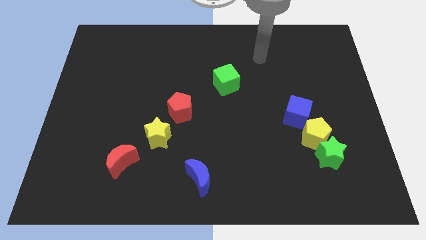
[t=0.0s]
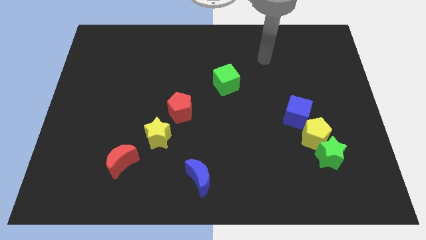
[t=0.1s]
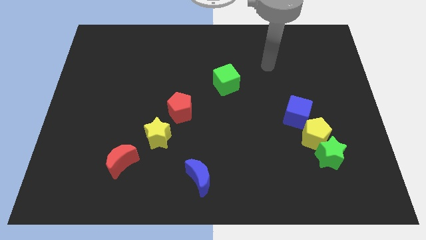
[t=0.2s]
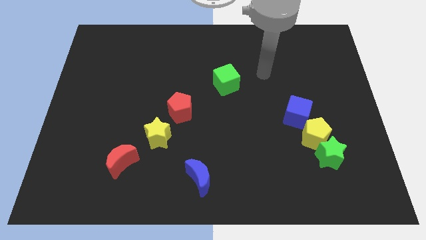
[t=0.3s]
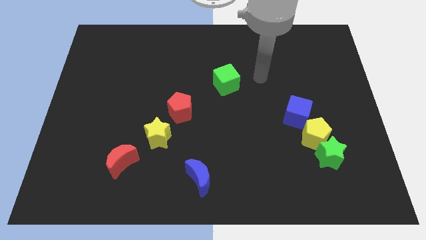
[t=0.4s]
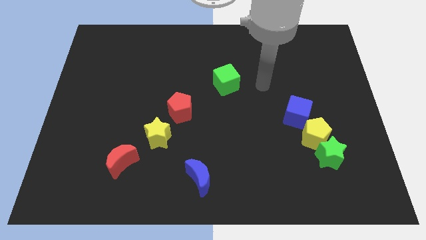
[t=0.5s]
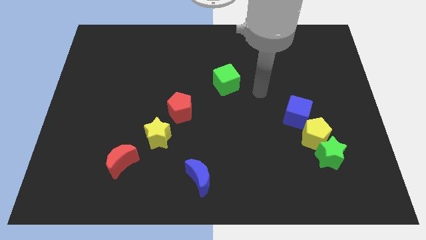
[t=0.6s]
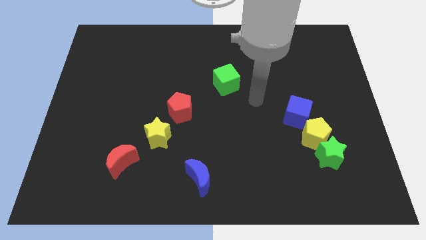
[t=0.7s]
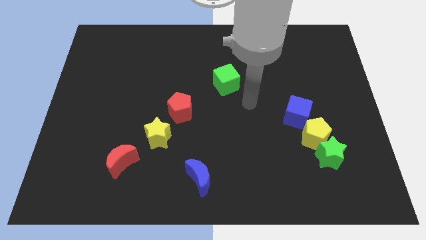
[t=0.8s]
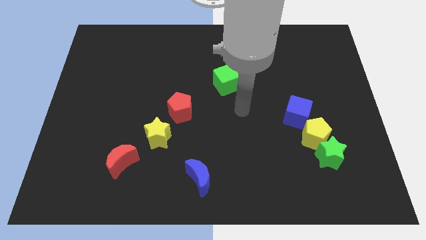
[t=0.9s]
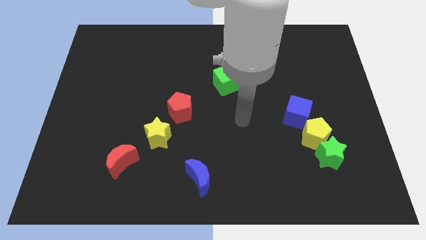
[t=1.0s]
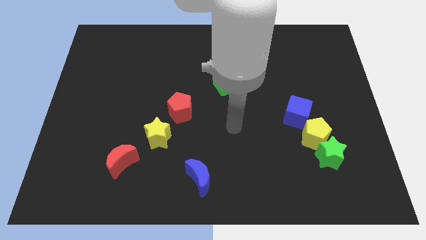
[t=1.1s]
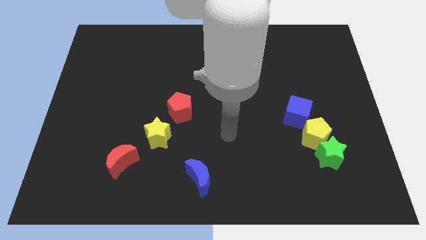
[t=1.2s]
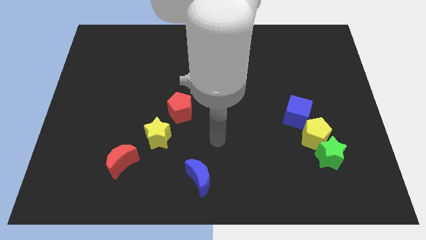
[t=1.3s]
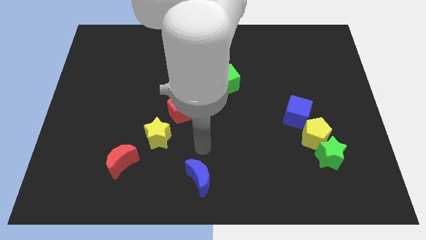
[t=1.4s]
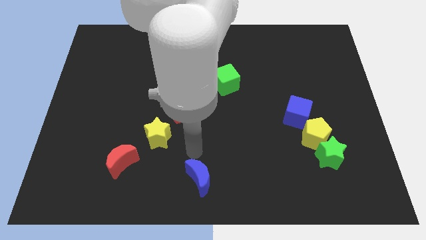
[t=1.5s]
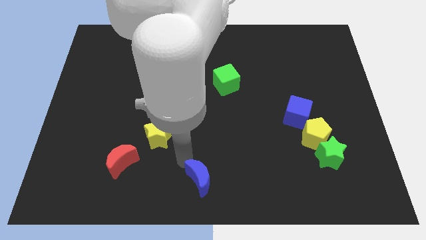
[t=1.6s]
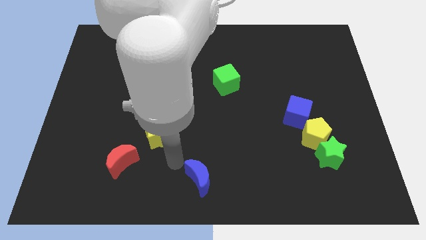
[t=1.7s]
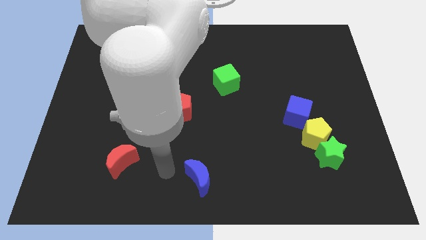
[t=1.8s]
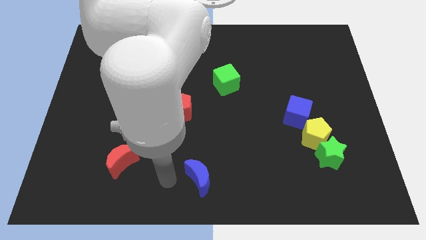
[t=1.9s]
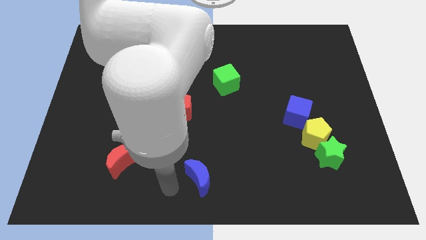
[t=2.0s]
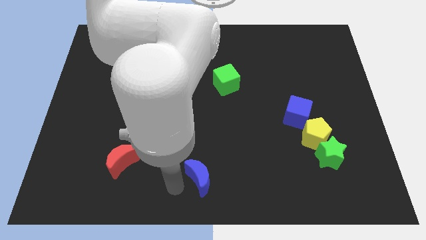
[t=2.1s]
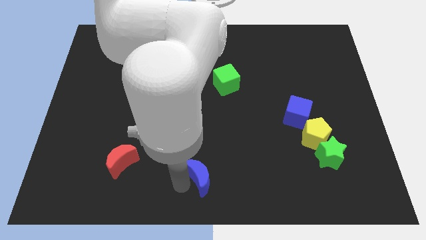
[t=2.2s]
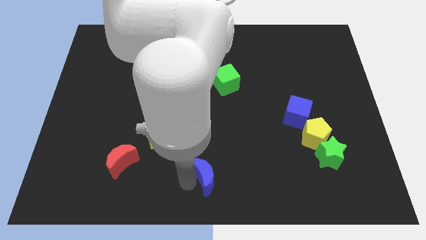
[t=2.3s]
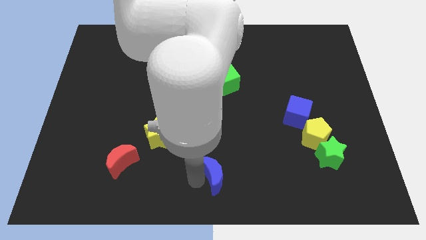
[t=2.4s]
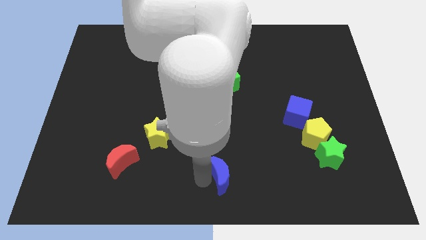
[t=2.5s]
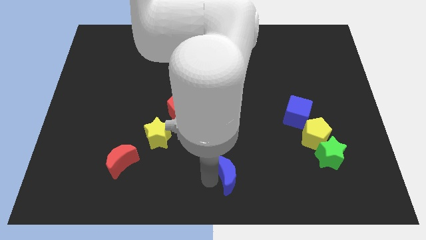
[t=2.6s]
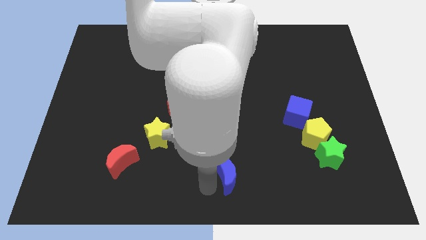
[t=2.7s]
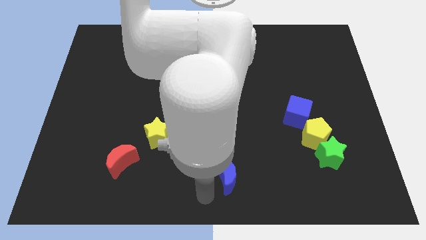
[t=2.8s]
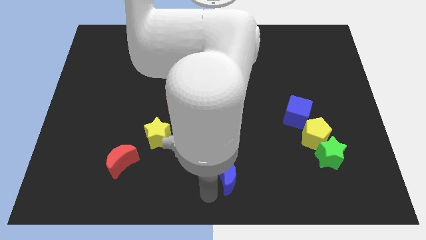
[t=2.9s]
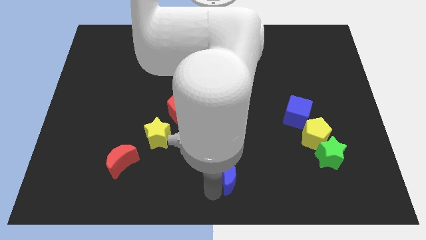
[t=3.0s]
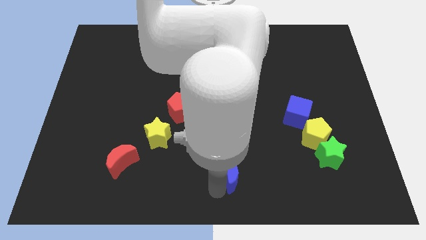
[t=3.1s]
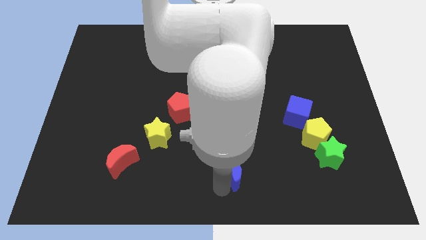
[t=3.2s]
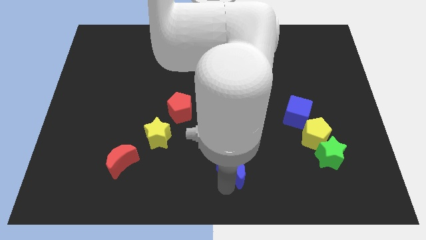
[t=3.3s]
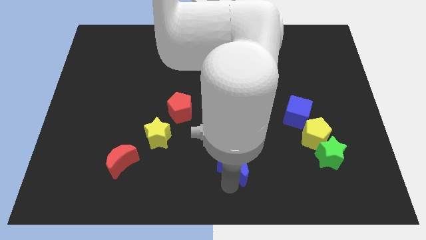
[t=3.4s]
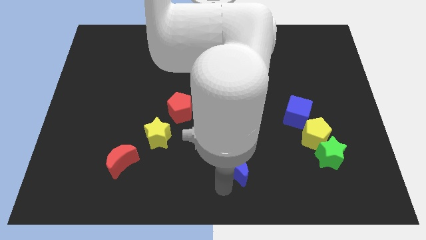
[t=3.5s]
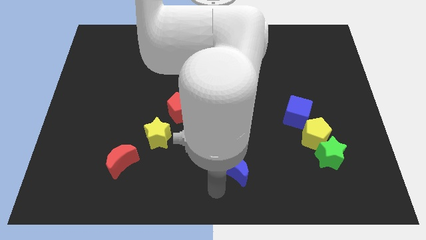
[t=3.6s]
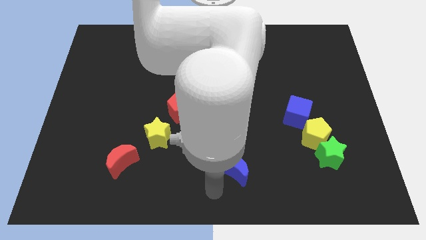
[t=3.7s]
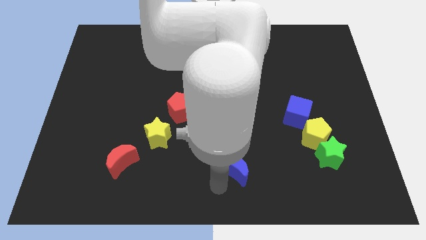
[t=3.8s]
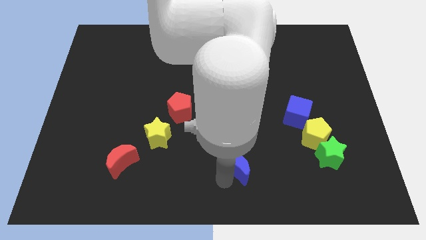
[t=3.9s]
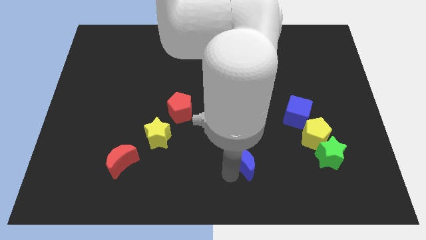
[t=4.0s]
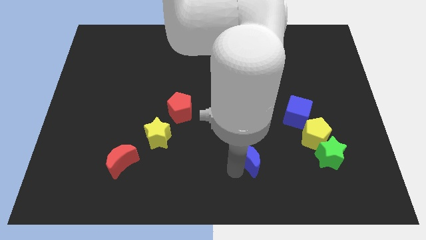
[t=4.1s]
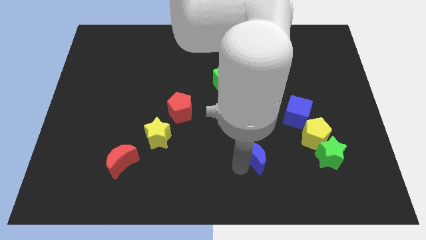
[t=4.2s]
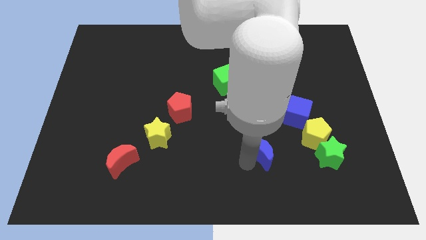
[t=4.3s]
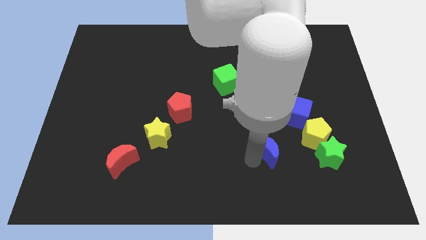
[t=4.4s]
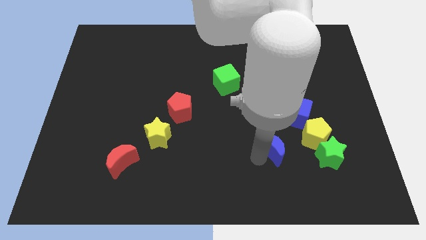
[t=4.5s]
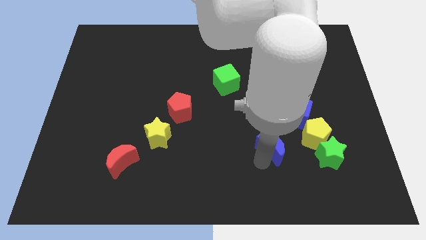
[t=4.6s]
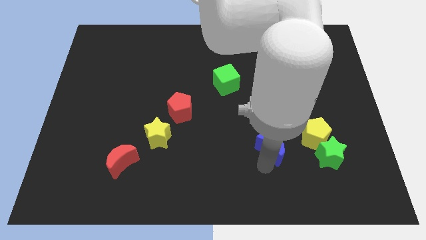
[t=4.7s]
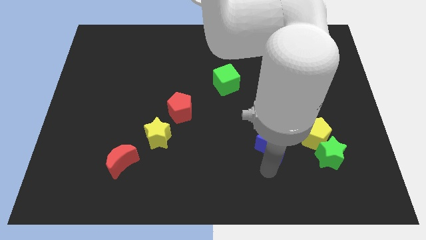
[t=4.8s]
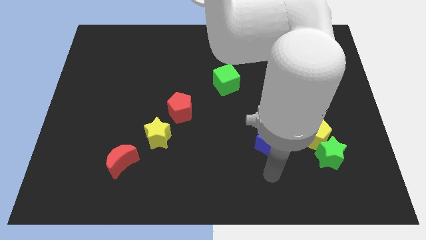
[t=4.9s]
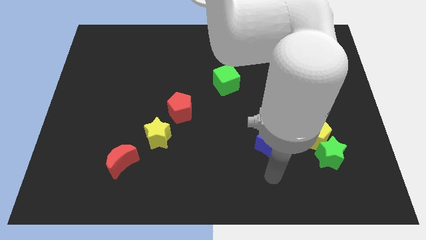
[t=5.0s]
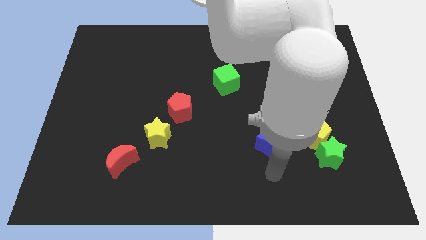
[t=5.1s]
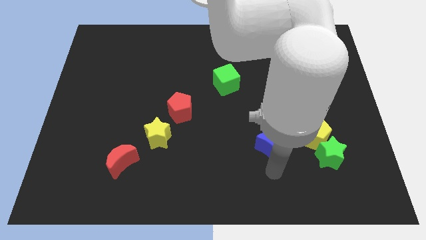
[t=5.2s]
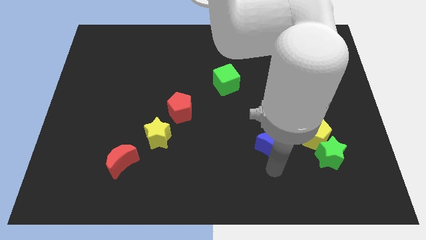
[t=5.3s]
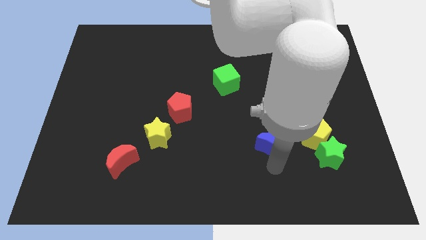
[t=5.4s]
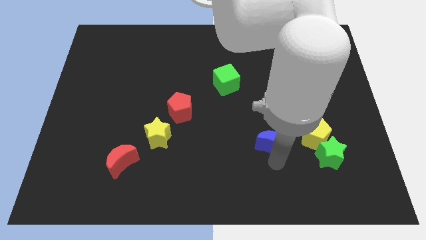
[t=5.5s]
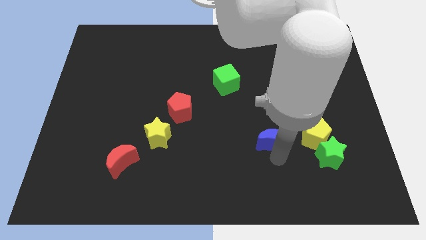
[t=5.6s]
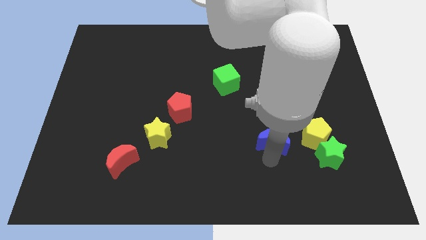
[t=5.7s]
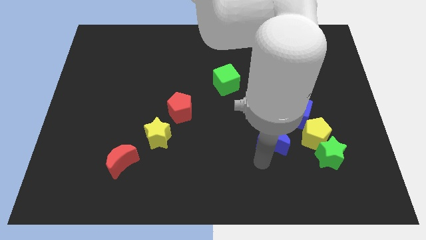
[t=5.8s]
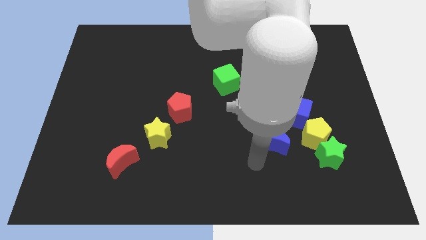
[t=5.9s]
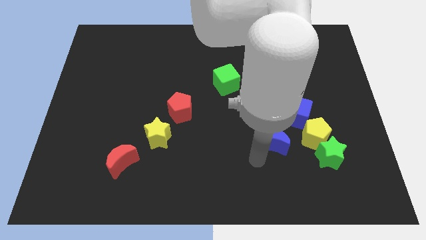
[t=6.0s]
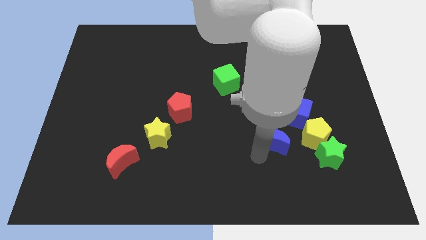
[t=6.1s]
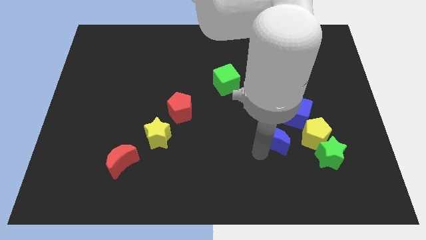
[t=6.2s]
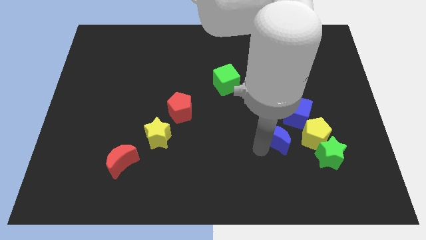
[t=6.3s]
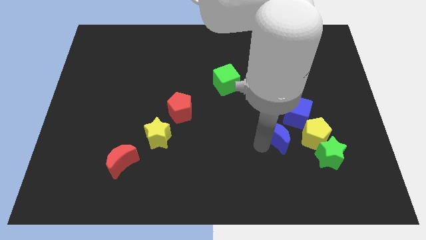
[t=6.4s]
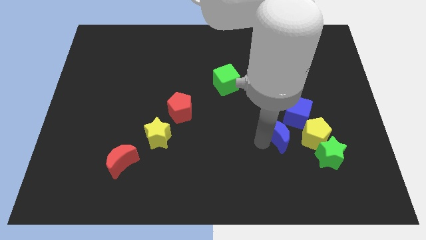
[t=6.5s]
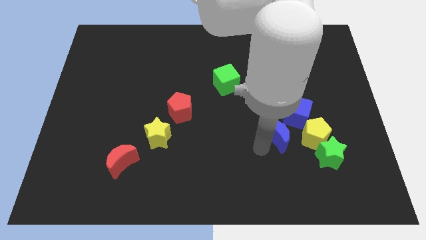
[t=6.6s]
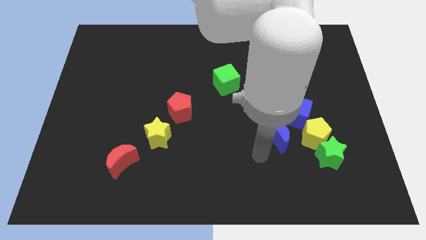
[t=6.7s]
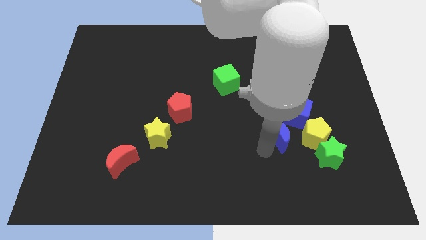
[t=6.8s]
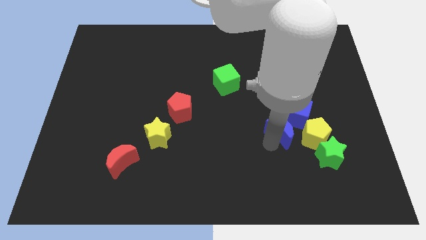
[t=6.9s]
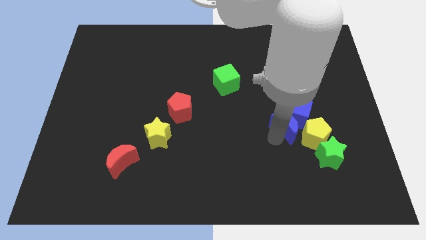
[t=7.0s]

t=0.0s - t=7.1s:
push the blue moon close to the blue cube

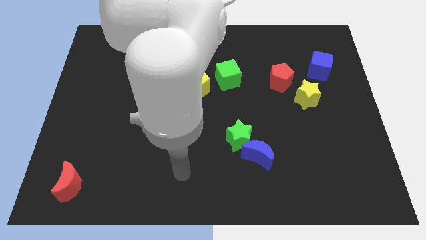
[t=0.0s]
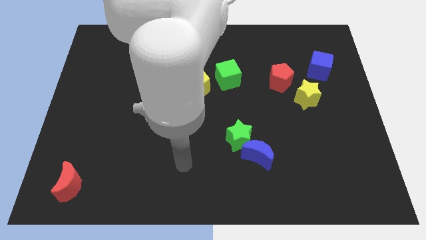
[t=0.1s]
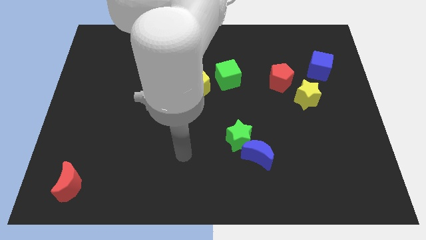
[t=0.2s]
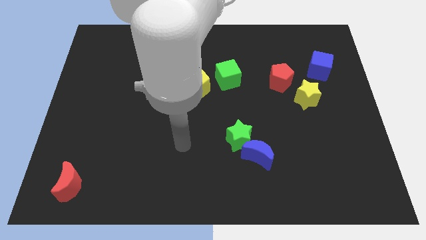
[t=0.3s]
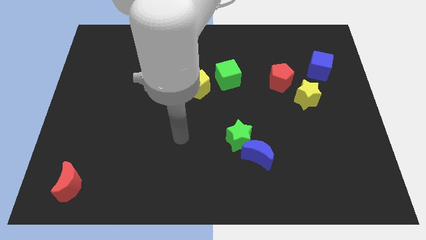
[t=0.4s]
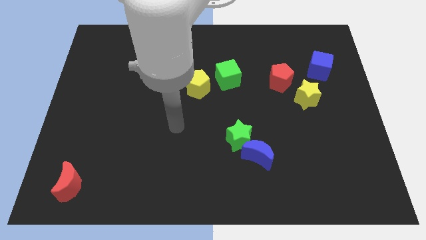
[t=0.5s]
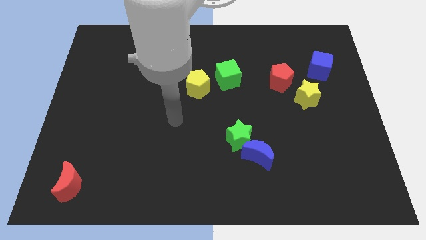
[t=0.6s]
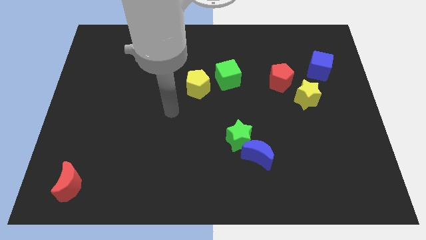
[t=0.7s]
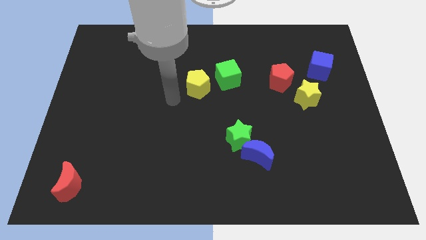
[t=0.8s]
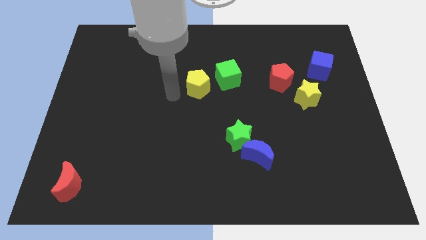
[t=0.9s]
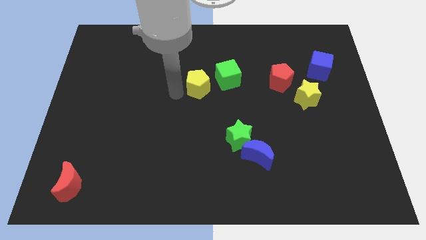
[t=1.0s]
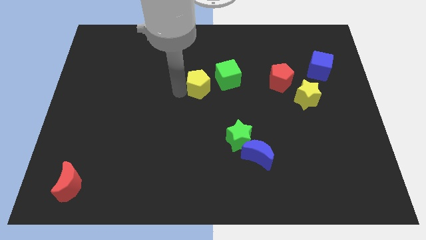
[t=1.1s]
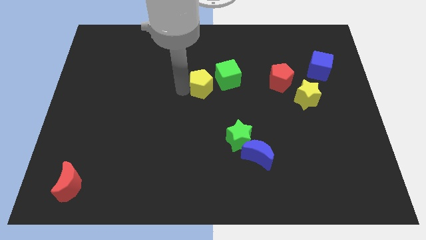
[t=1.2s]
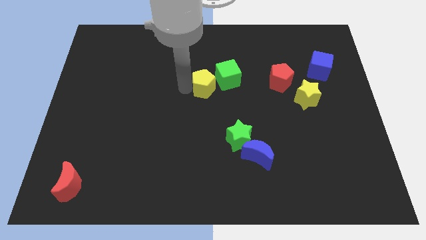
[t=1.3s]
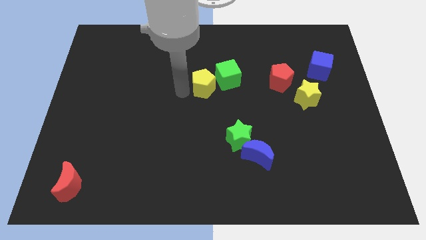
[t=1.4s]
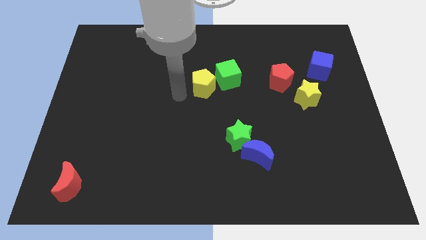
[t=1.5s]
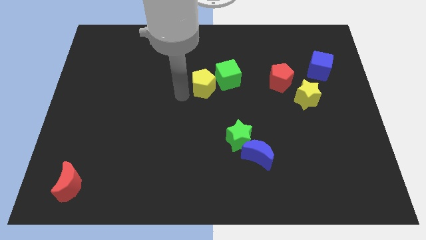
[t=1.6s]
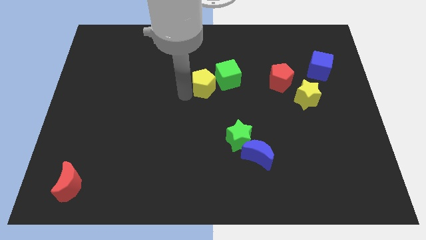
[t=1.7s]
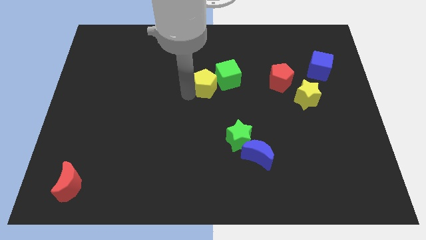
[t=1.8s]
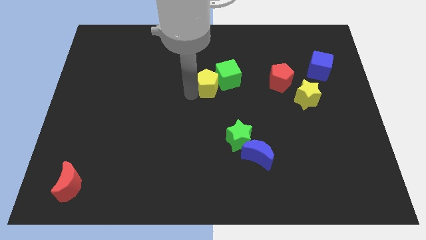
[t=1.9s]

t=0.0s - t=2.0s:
push the yellow pentagon to the green cube
